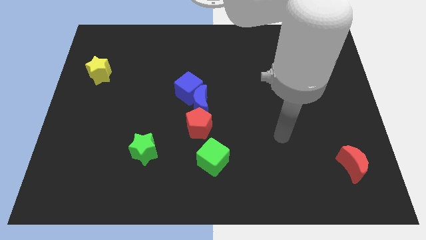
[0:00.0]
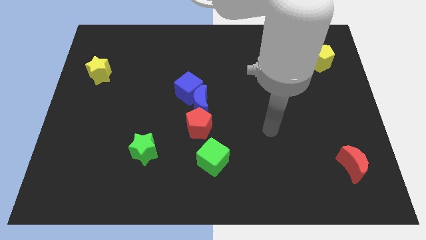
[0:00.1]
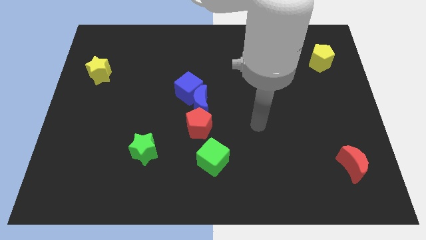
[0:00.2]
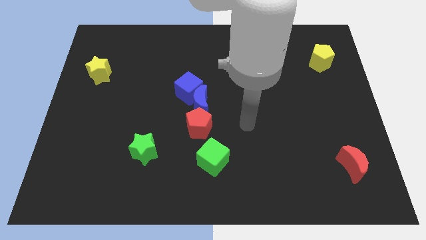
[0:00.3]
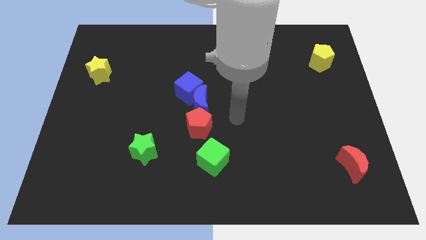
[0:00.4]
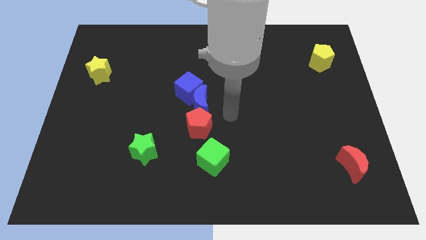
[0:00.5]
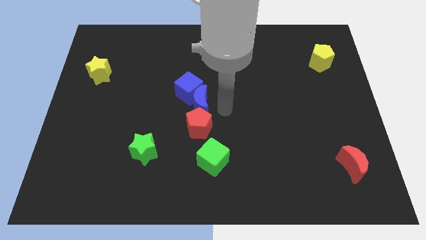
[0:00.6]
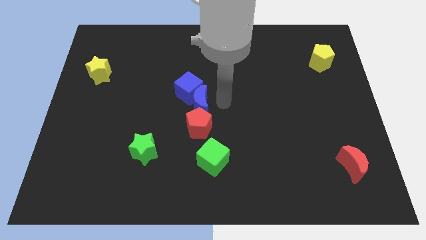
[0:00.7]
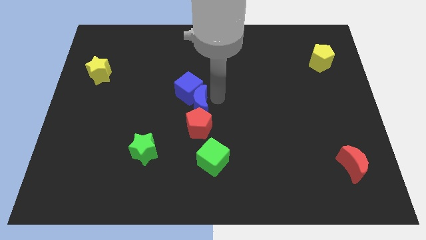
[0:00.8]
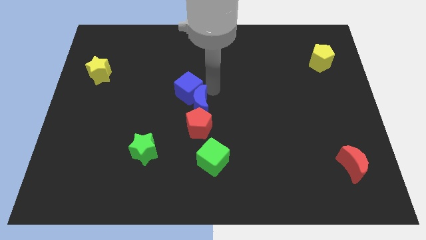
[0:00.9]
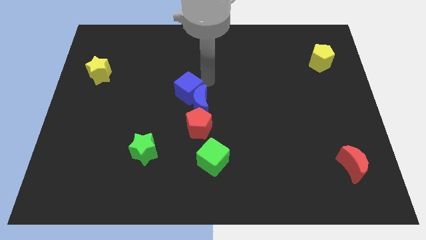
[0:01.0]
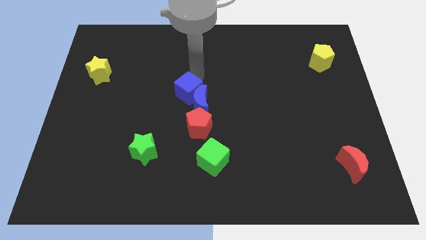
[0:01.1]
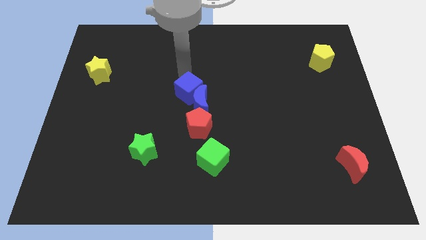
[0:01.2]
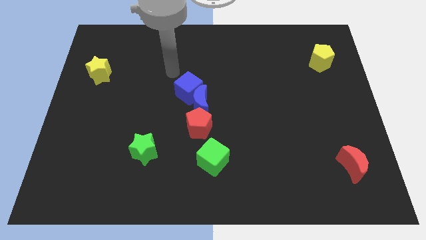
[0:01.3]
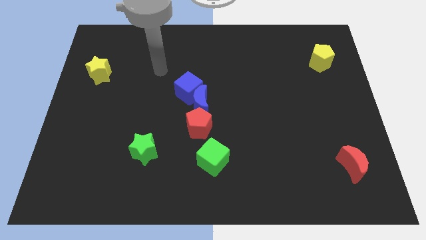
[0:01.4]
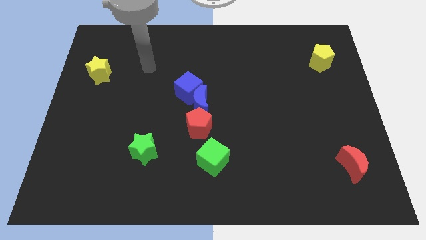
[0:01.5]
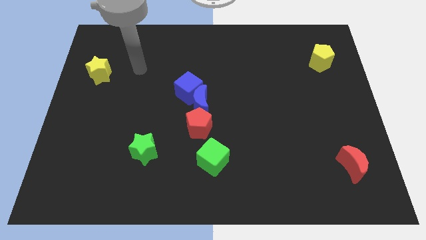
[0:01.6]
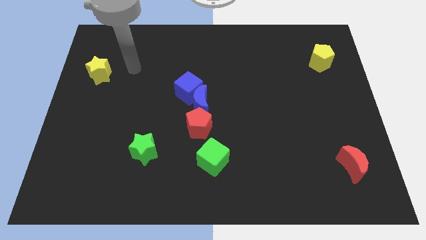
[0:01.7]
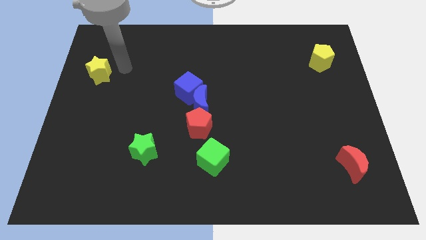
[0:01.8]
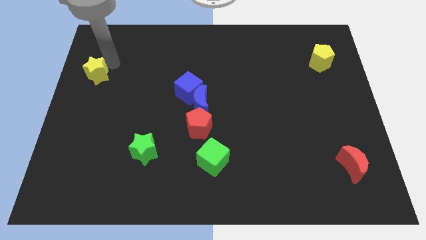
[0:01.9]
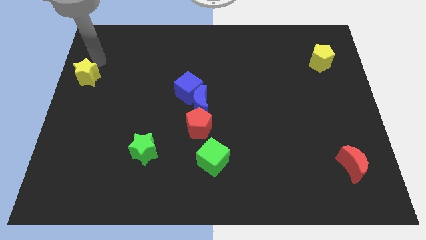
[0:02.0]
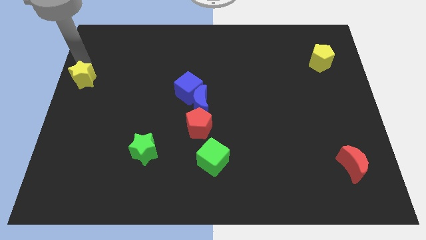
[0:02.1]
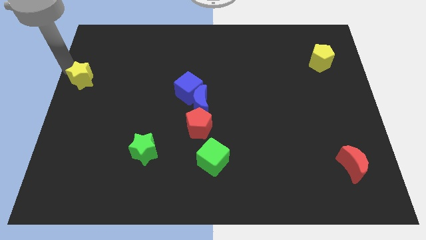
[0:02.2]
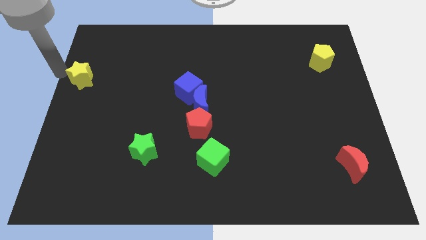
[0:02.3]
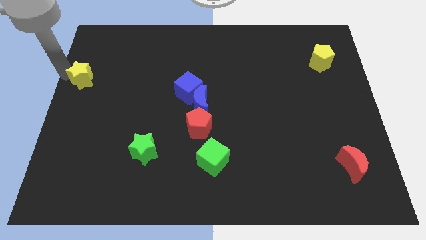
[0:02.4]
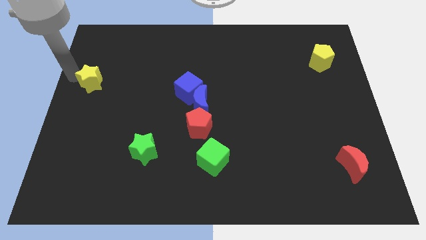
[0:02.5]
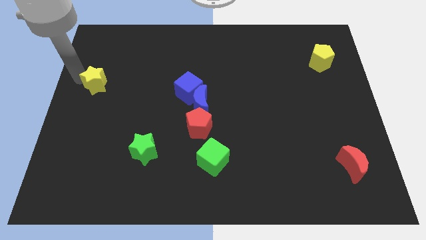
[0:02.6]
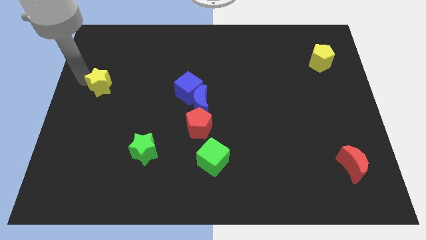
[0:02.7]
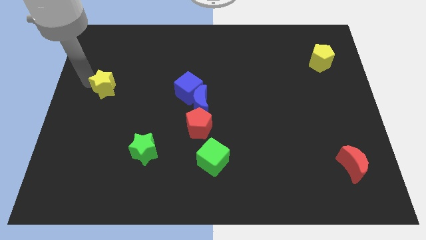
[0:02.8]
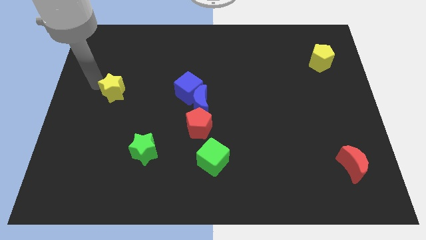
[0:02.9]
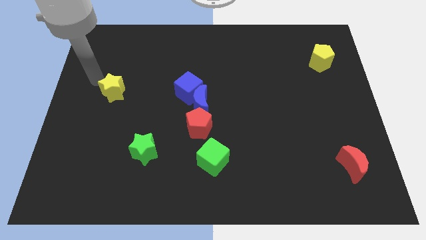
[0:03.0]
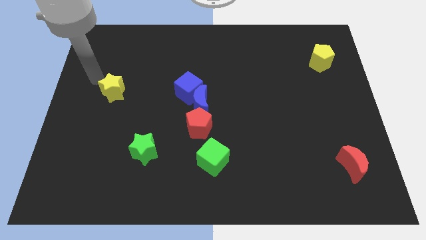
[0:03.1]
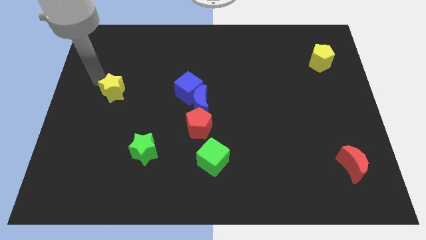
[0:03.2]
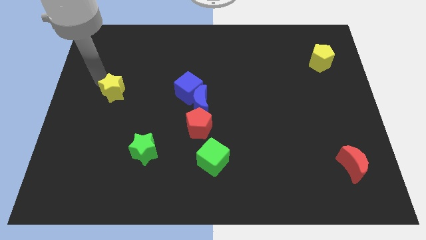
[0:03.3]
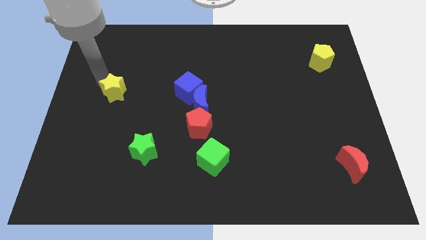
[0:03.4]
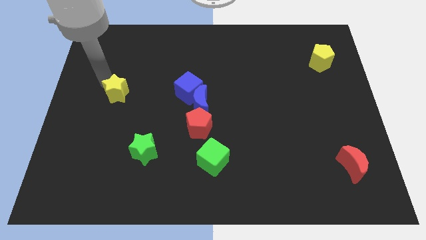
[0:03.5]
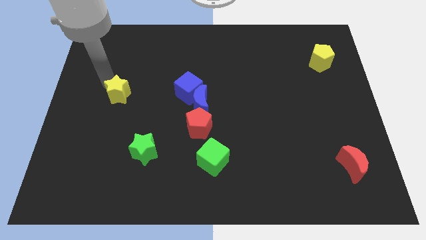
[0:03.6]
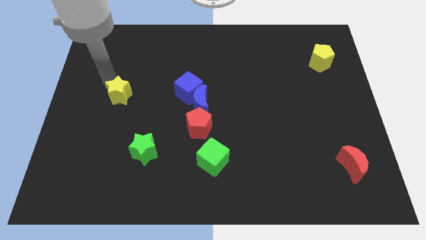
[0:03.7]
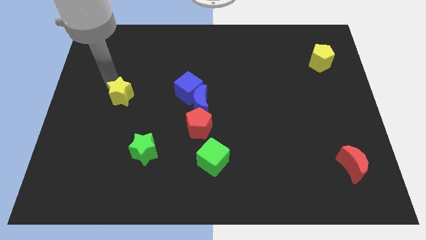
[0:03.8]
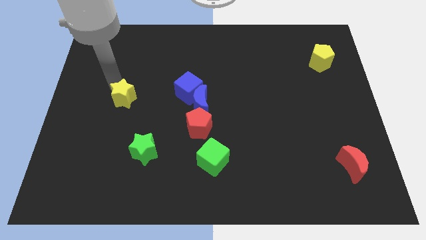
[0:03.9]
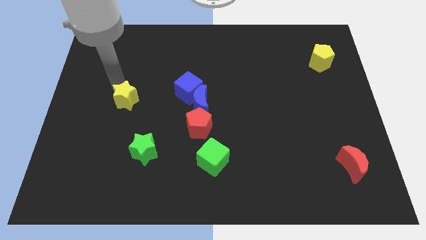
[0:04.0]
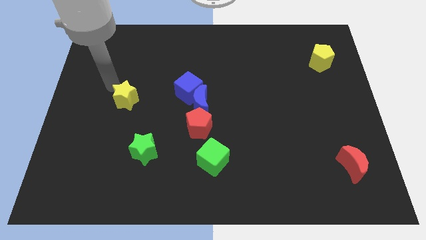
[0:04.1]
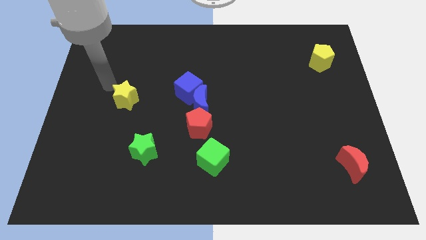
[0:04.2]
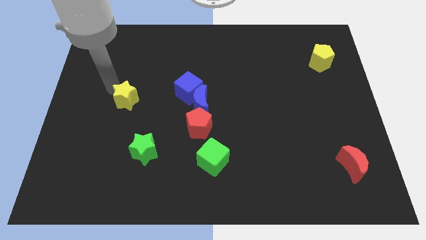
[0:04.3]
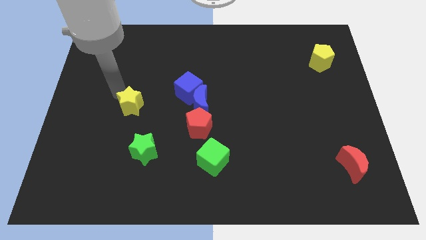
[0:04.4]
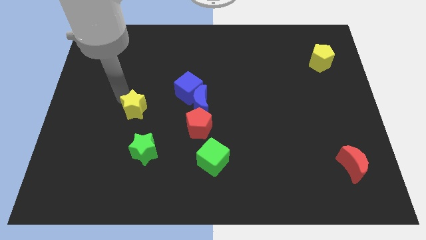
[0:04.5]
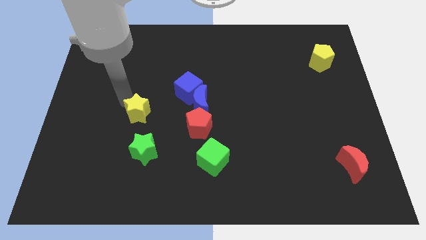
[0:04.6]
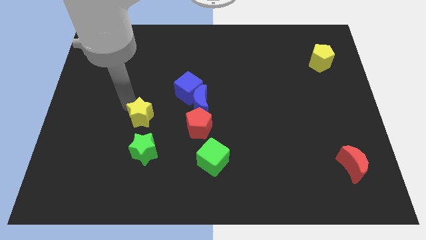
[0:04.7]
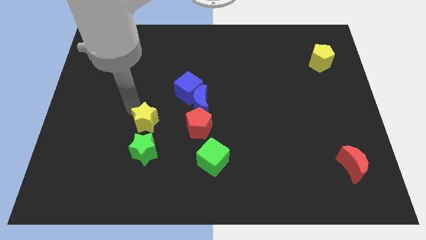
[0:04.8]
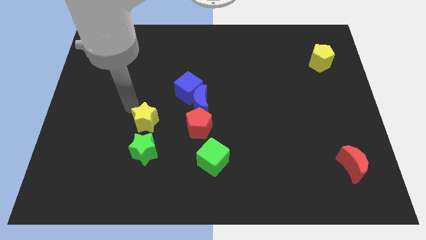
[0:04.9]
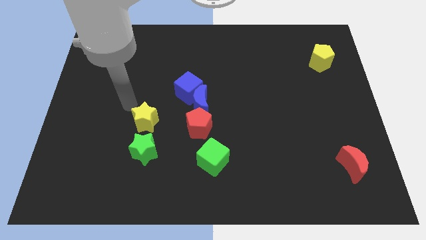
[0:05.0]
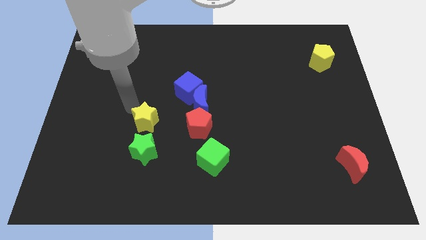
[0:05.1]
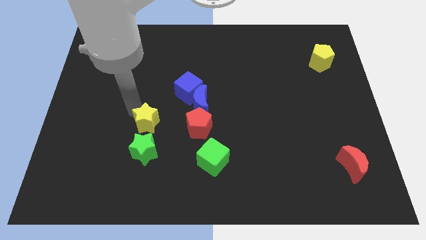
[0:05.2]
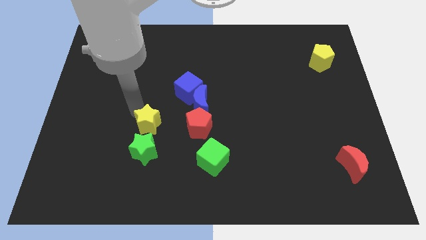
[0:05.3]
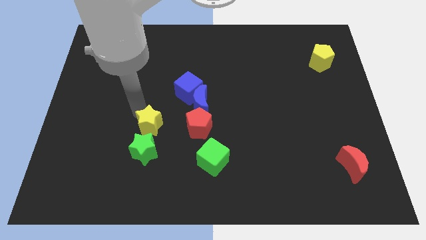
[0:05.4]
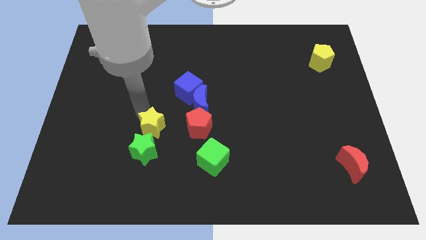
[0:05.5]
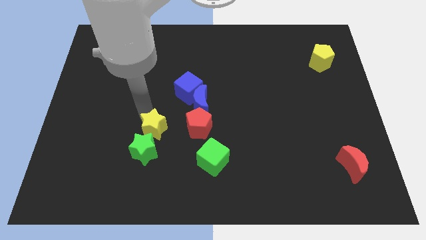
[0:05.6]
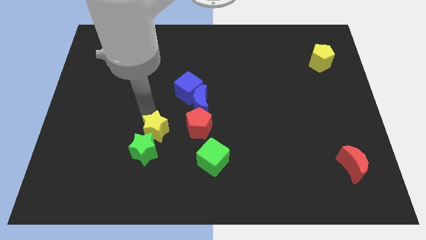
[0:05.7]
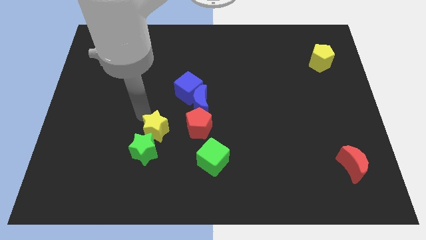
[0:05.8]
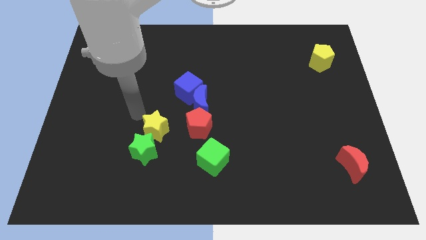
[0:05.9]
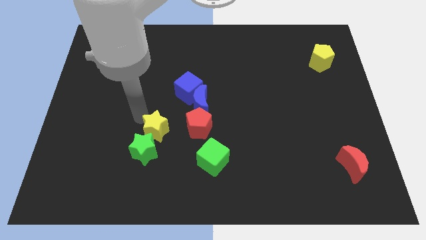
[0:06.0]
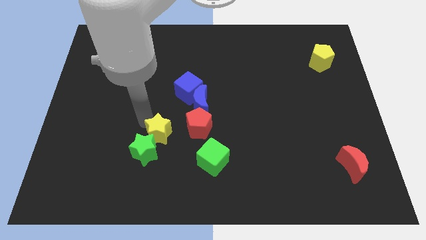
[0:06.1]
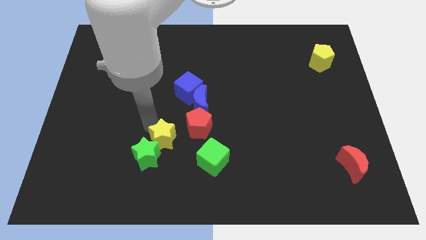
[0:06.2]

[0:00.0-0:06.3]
push the yellow star diagonally down and to the left of the red pentagon

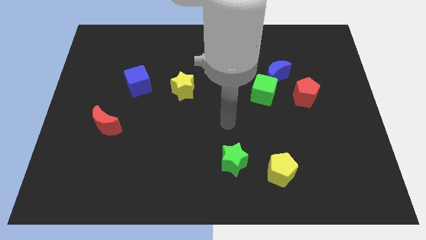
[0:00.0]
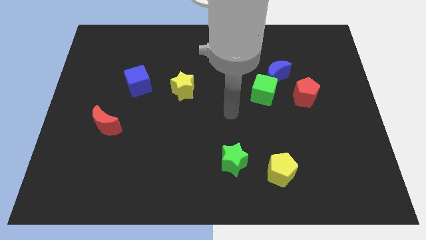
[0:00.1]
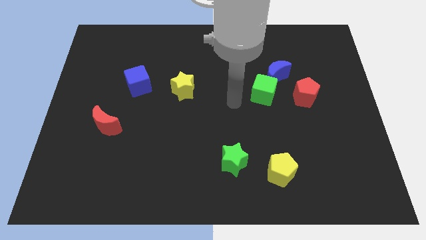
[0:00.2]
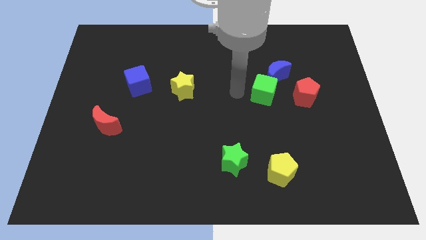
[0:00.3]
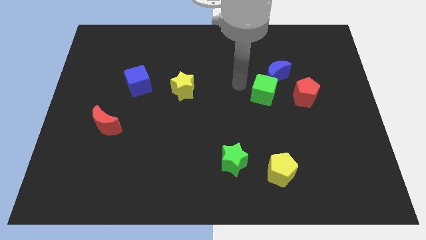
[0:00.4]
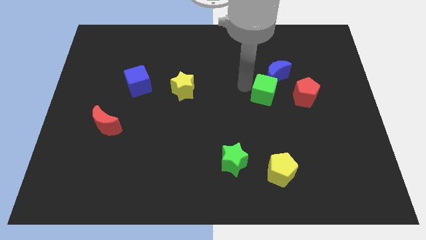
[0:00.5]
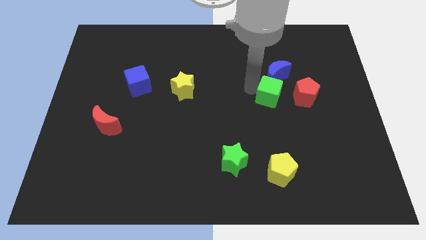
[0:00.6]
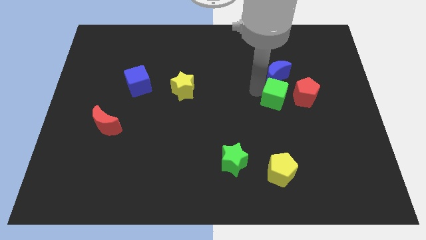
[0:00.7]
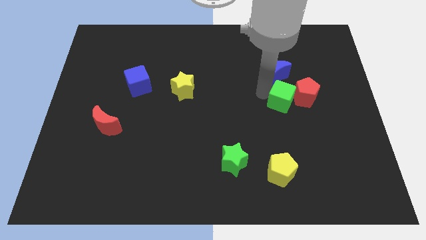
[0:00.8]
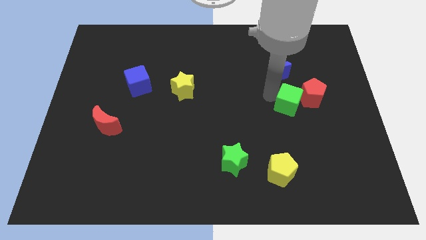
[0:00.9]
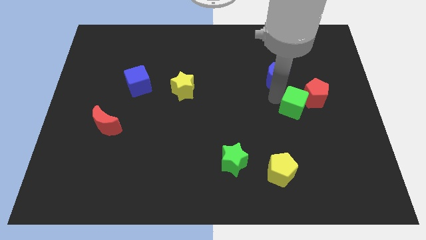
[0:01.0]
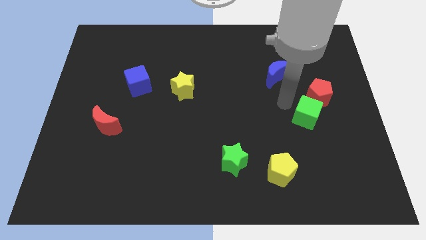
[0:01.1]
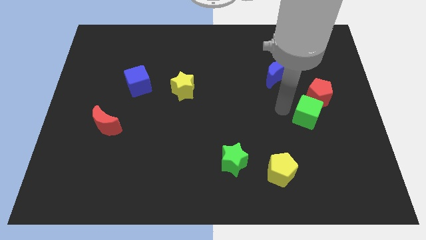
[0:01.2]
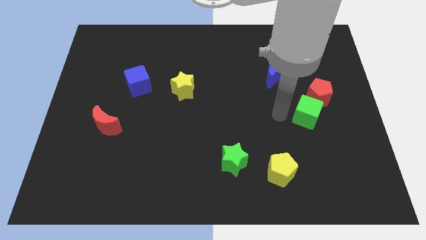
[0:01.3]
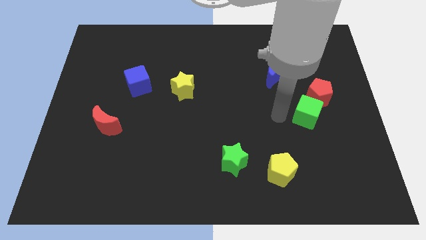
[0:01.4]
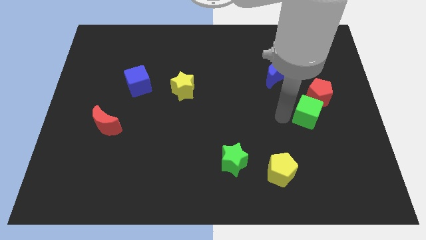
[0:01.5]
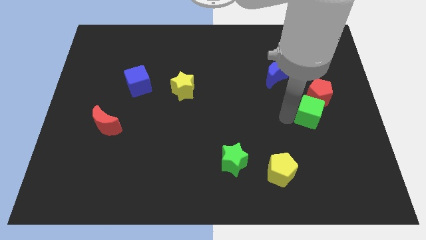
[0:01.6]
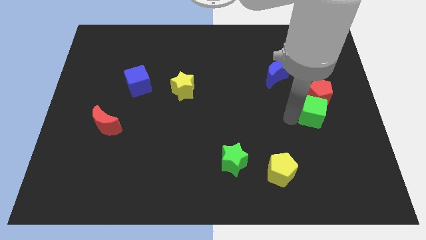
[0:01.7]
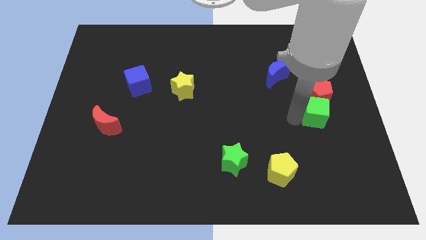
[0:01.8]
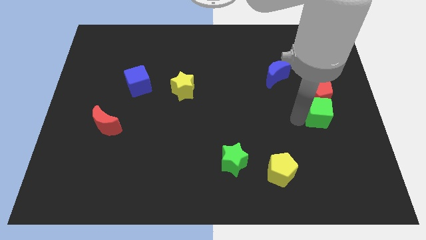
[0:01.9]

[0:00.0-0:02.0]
put the green cube to the bottom right side of the red pentagon
